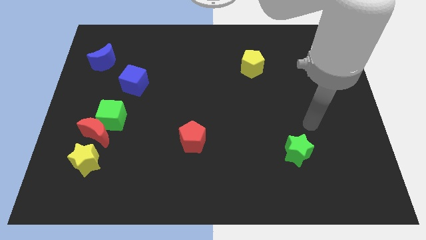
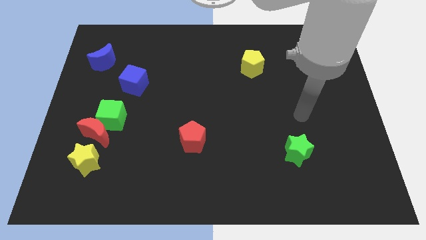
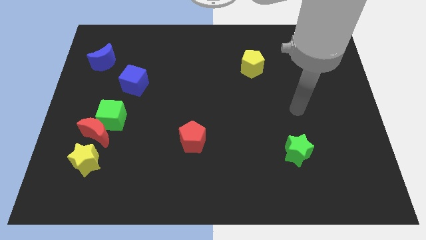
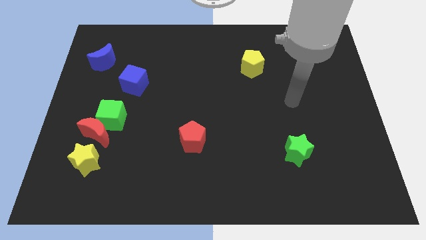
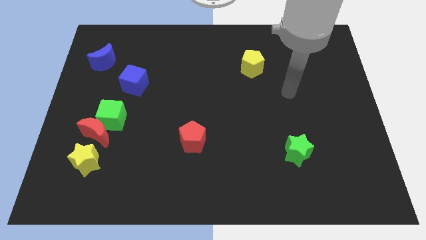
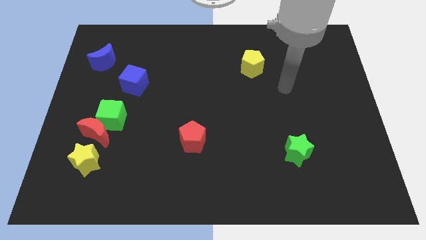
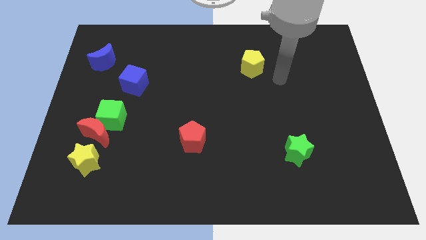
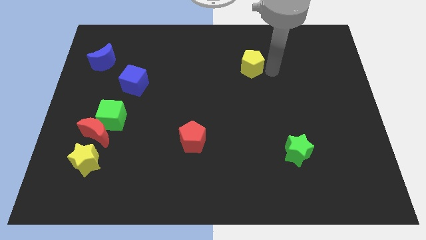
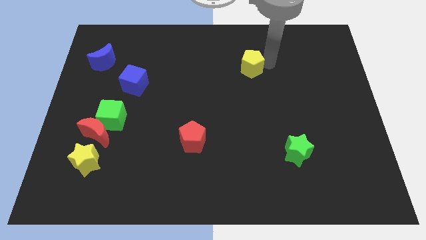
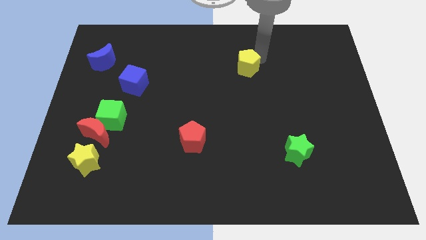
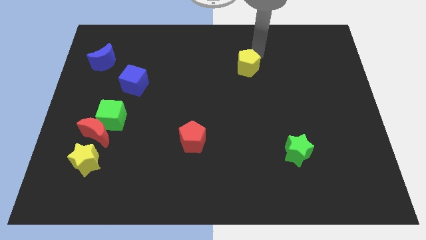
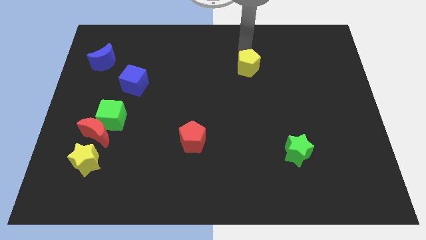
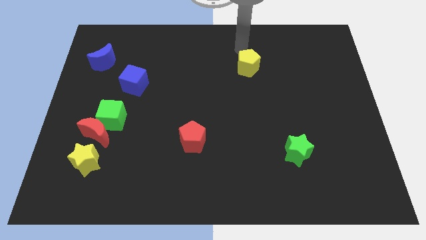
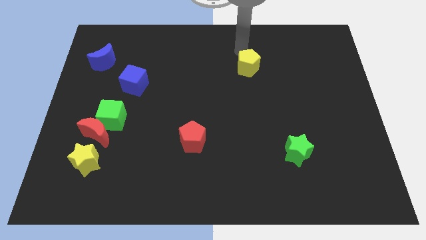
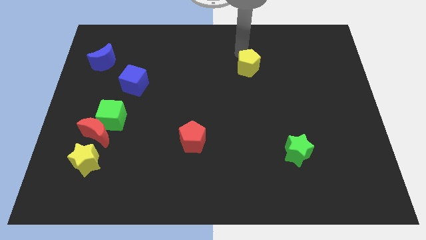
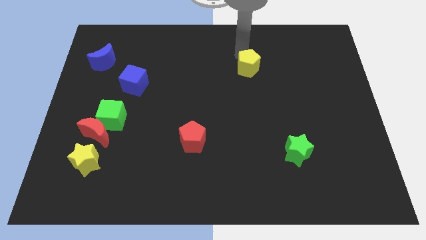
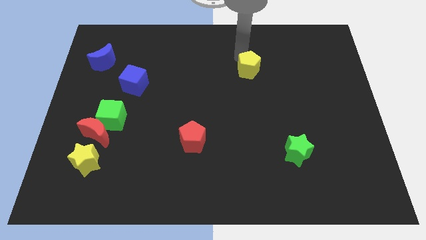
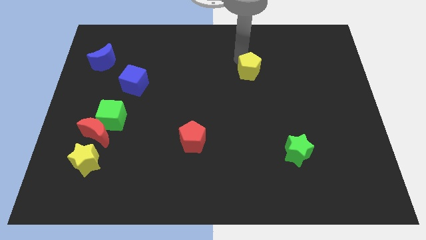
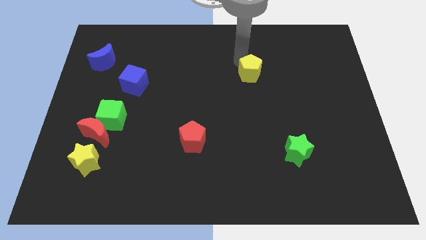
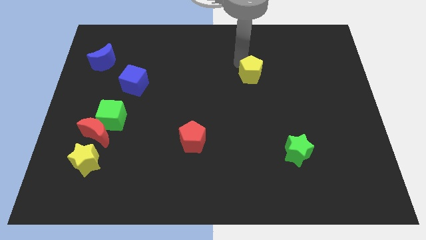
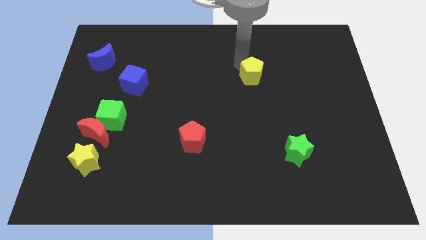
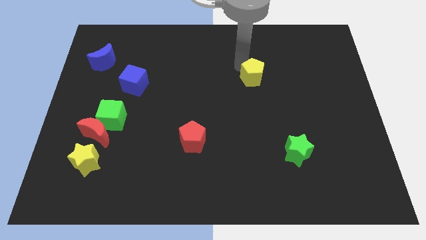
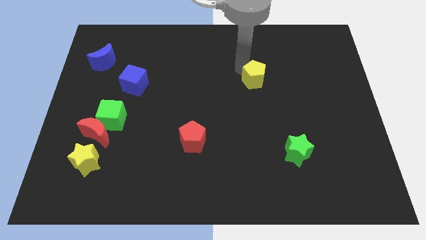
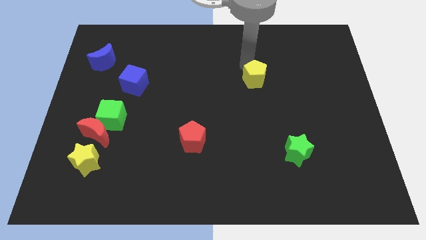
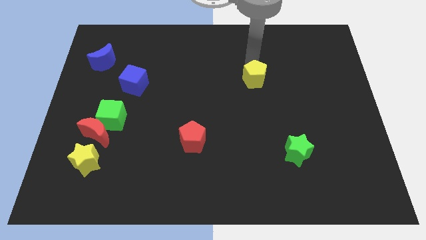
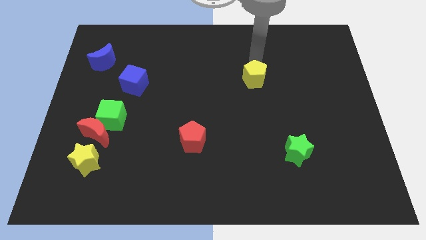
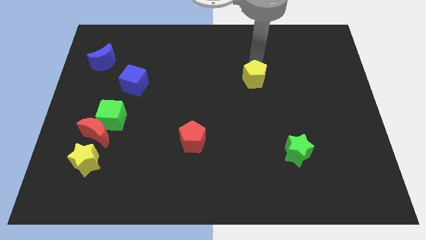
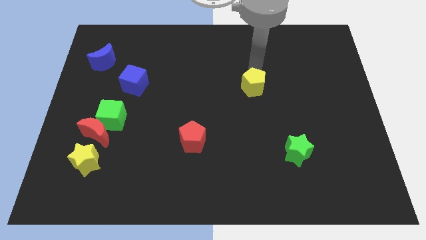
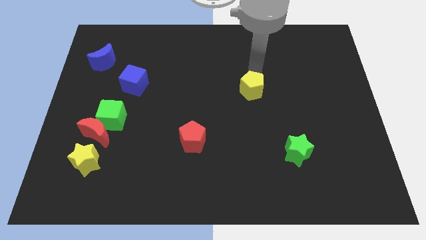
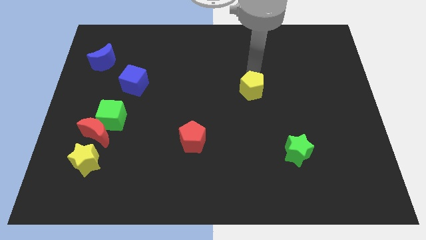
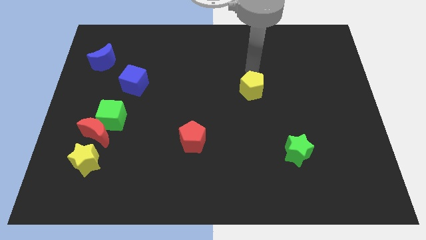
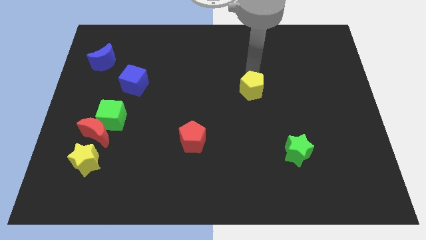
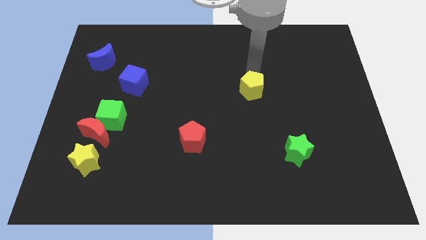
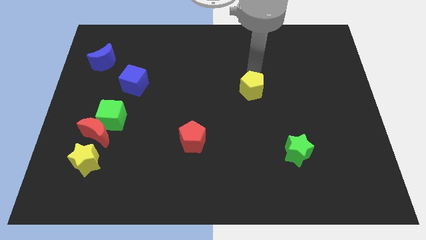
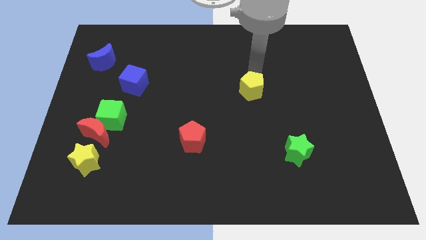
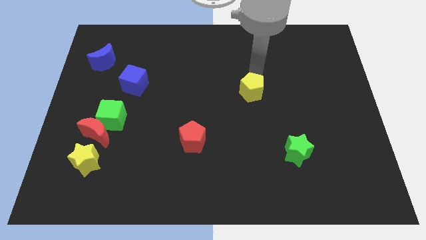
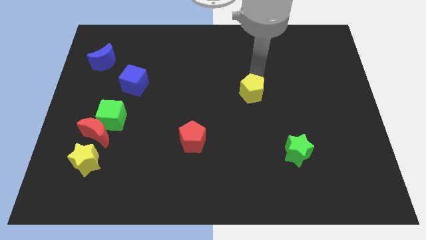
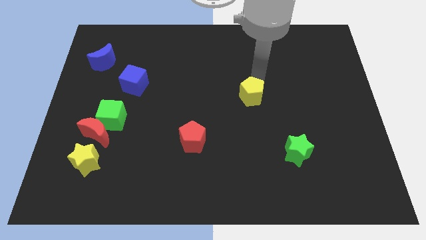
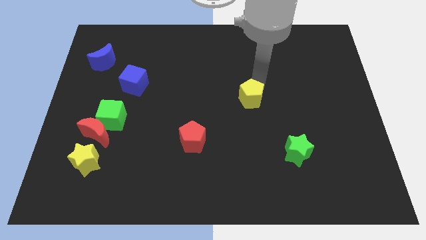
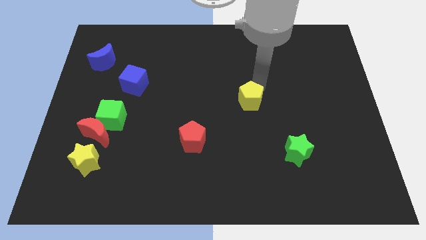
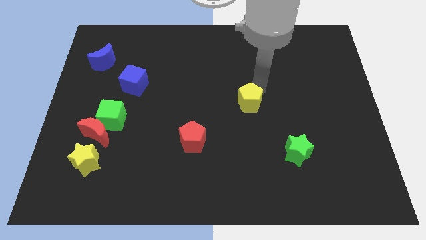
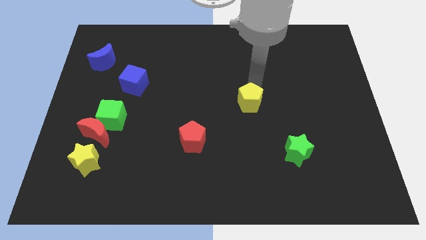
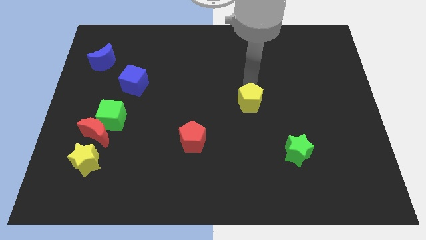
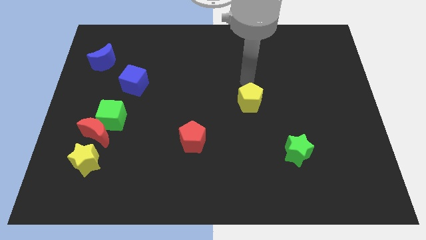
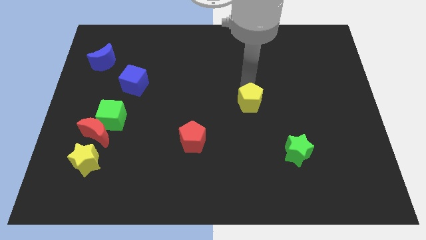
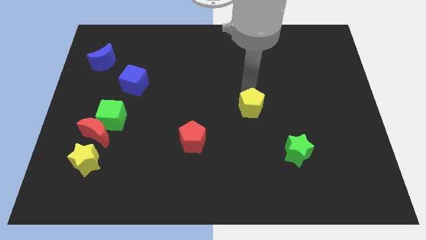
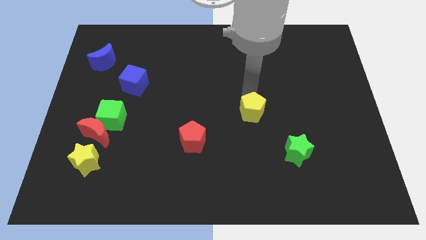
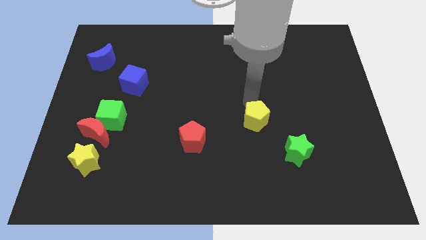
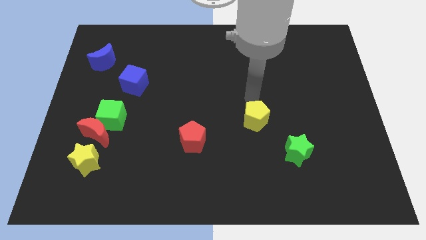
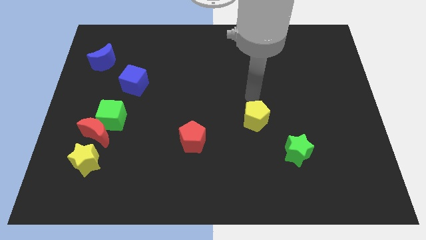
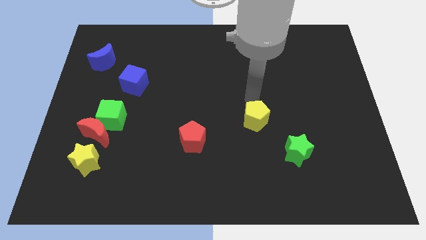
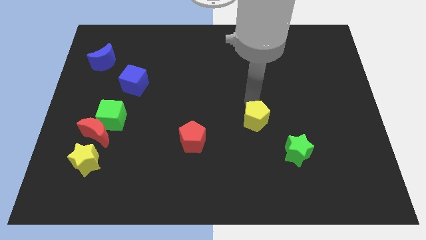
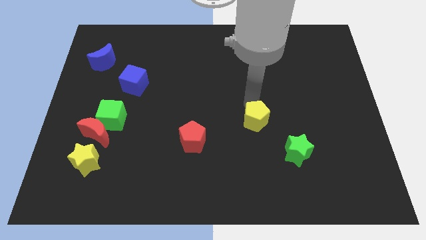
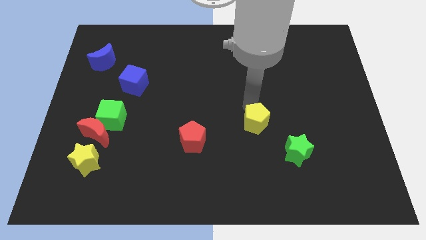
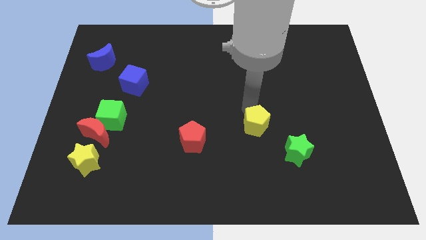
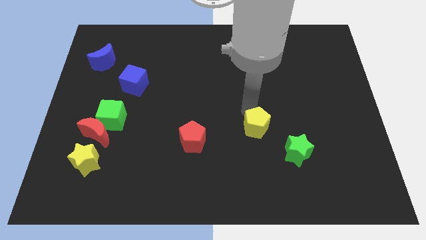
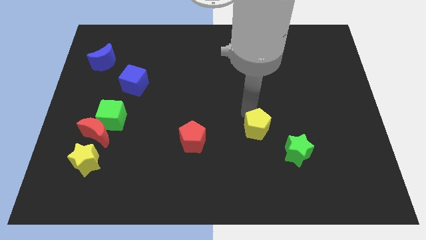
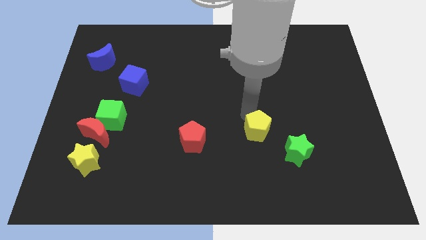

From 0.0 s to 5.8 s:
push the yellow pentagon down

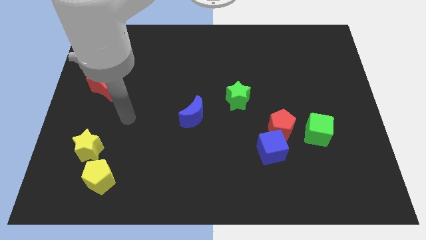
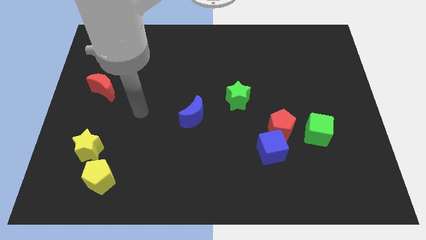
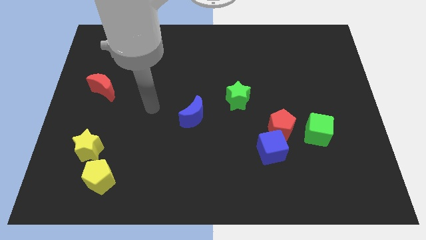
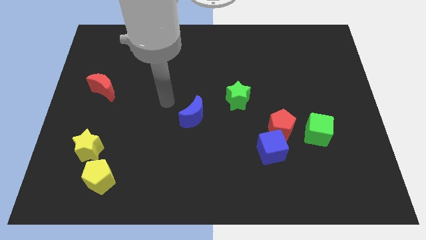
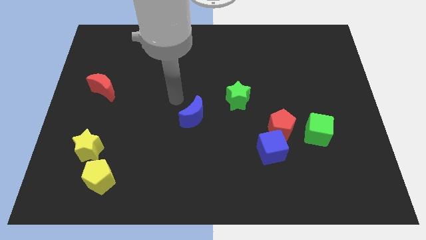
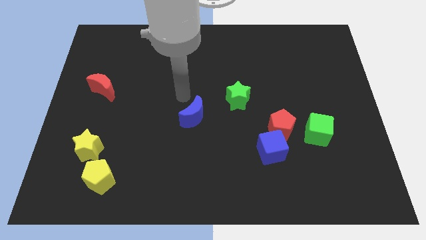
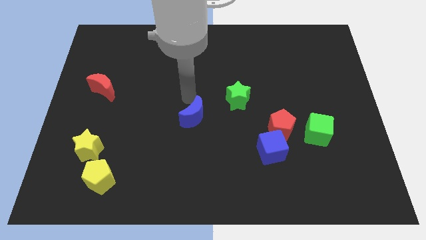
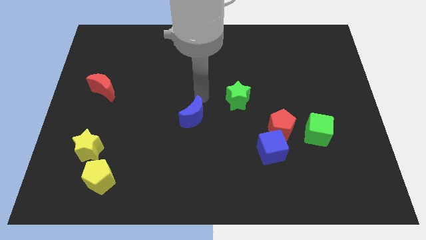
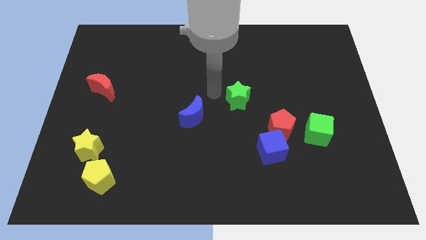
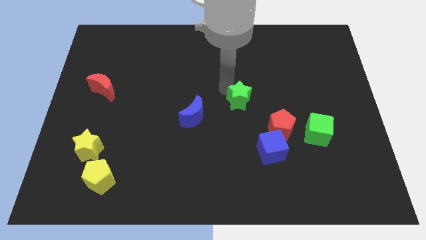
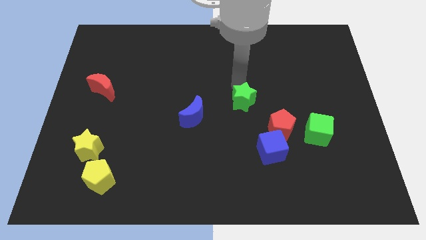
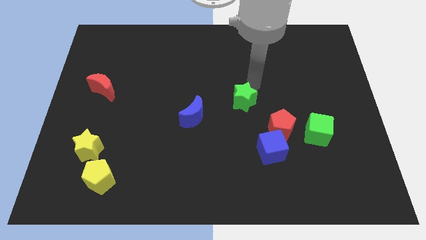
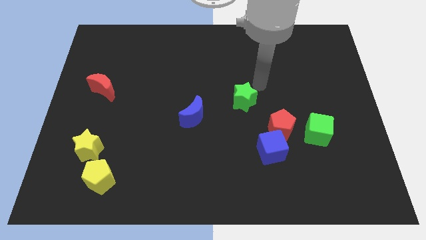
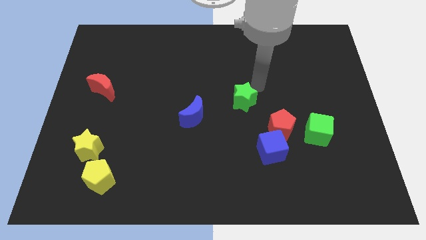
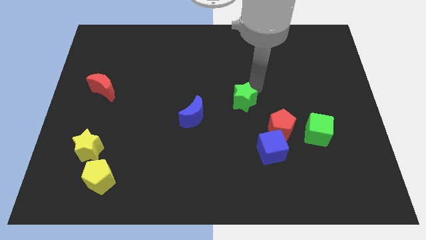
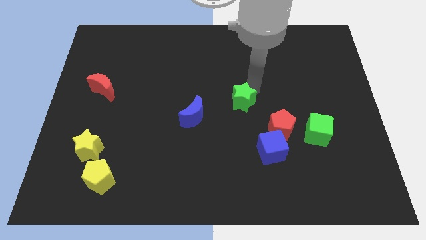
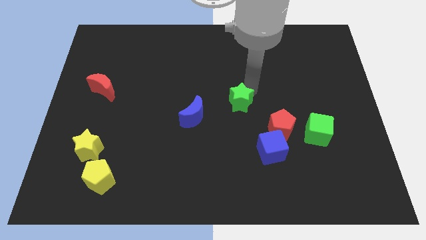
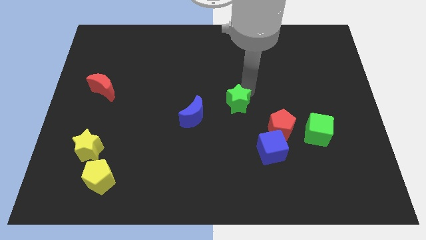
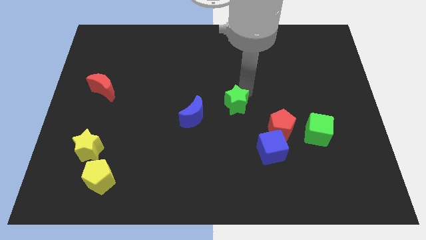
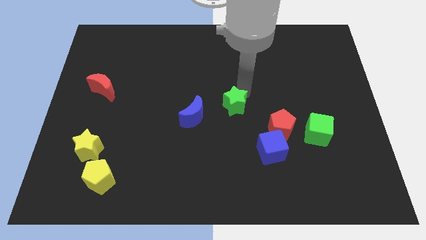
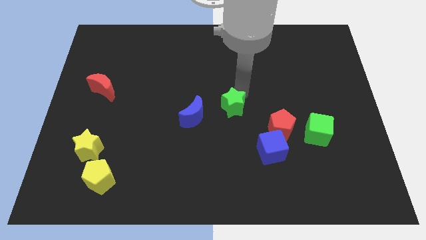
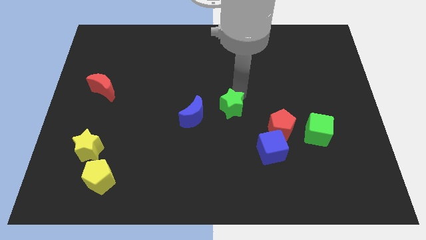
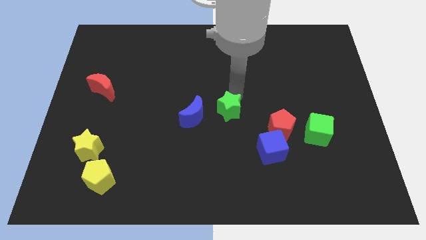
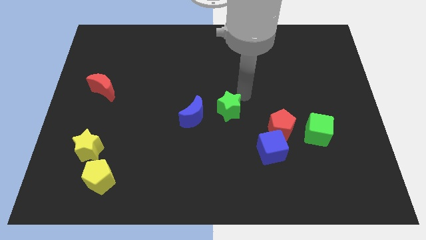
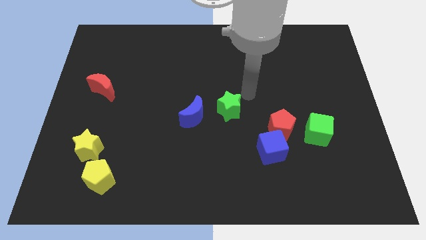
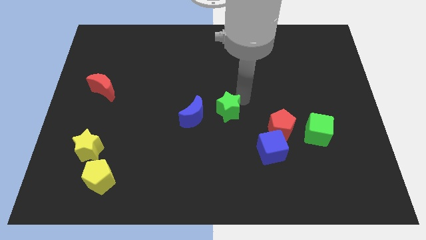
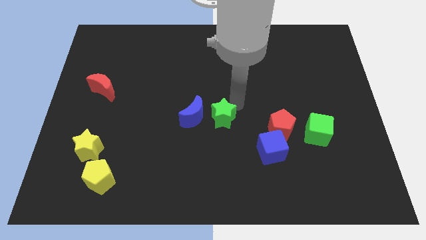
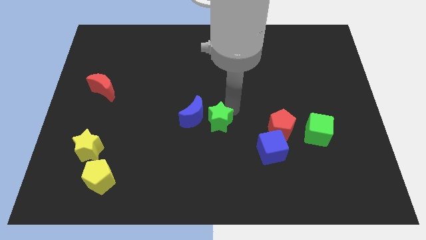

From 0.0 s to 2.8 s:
push the green star diagonally downwards and left a little
